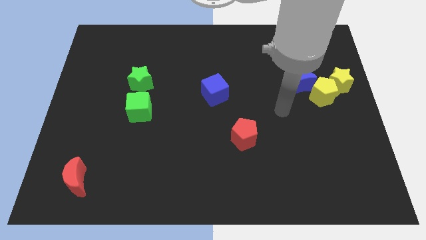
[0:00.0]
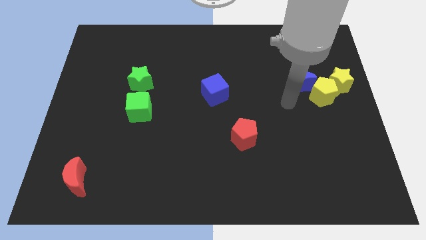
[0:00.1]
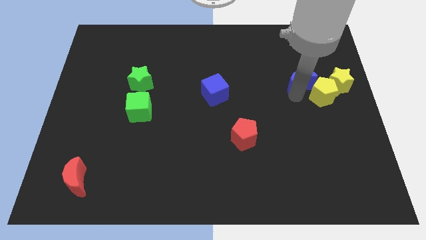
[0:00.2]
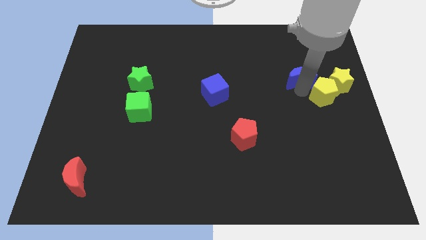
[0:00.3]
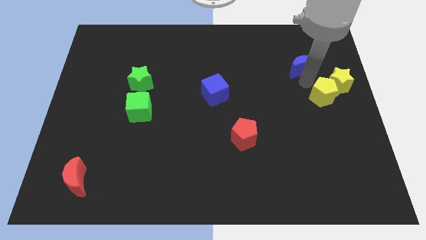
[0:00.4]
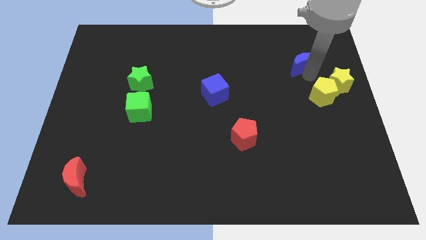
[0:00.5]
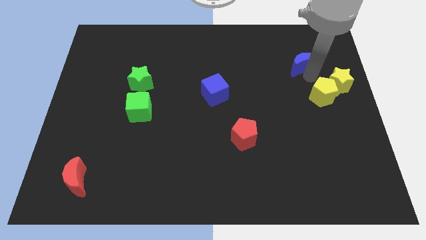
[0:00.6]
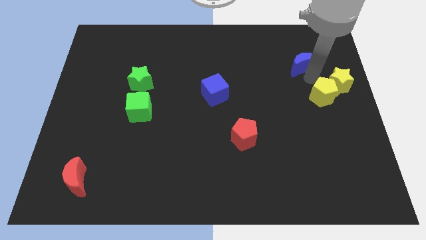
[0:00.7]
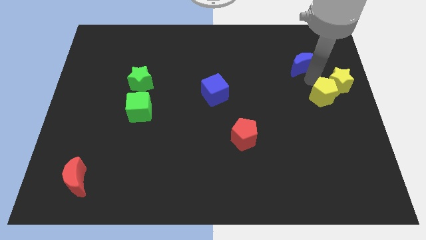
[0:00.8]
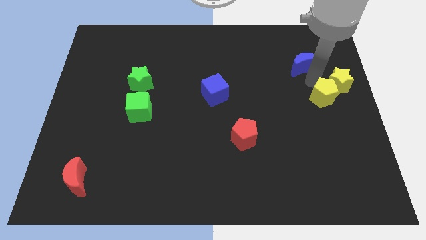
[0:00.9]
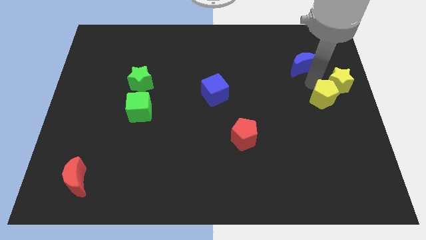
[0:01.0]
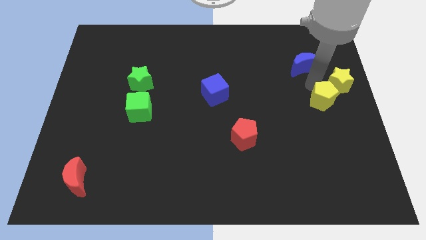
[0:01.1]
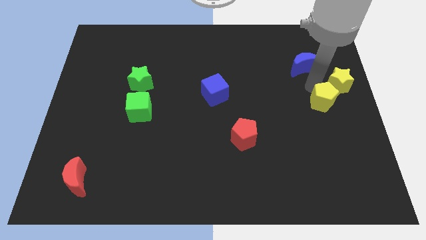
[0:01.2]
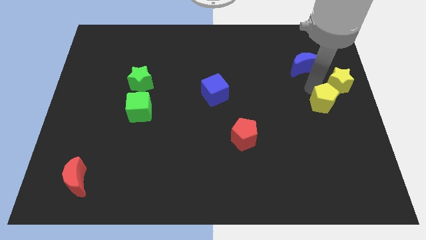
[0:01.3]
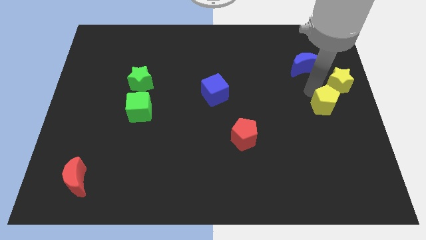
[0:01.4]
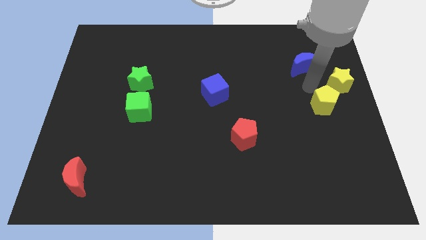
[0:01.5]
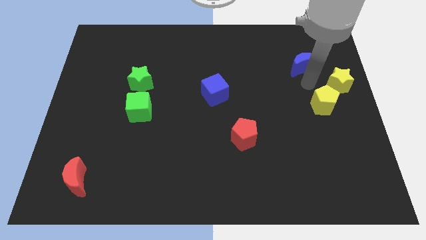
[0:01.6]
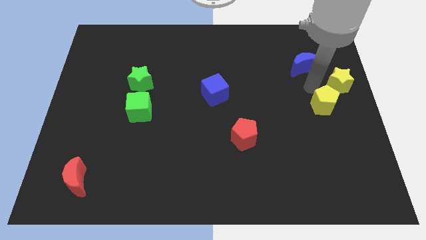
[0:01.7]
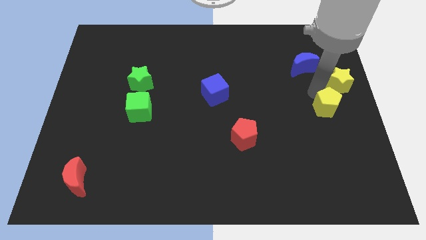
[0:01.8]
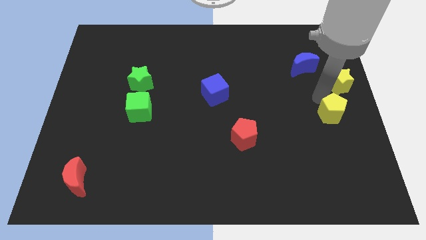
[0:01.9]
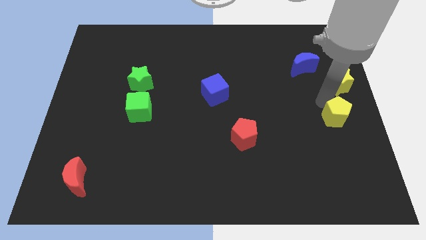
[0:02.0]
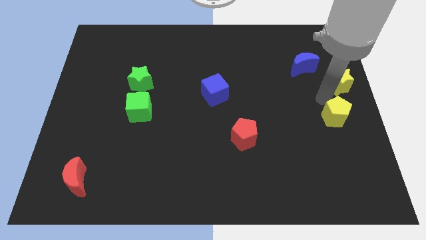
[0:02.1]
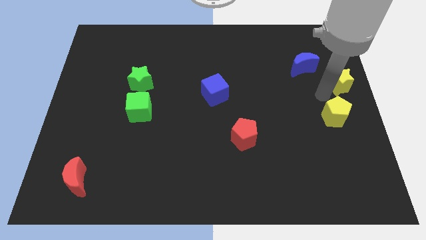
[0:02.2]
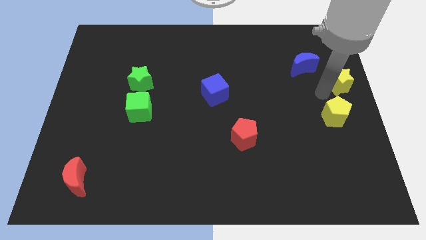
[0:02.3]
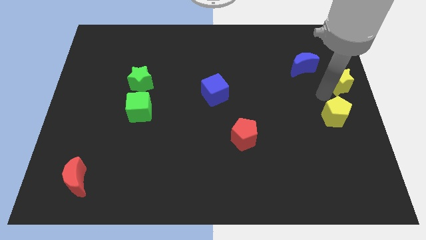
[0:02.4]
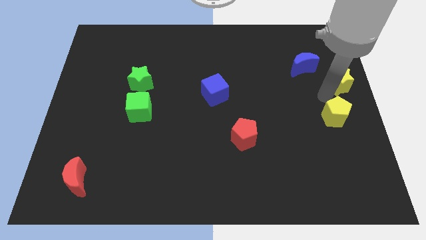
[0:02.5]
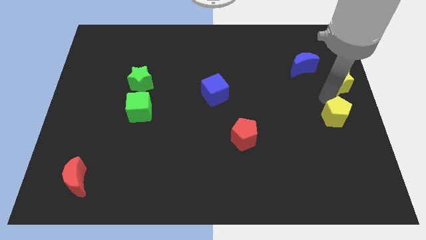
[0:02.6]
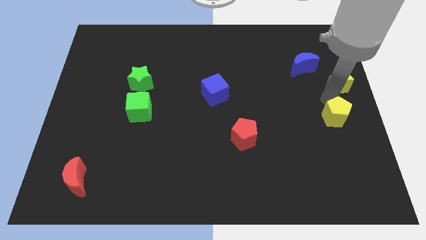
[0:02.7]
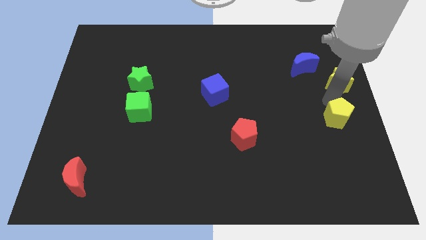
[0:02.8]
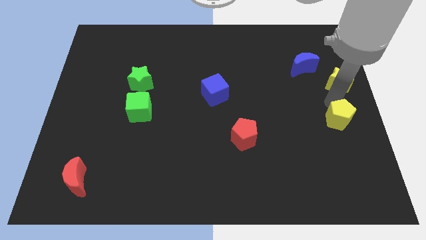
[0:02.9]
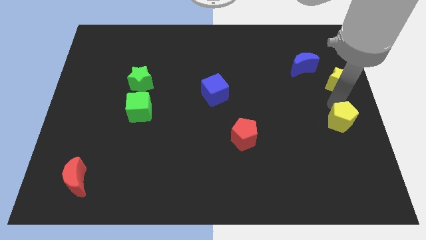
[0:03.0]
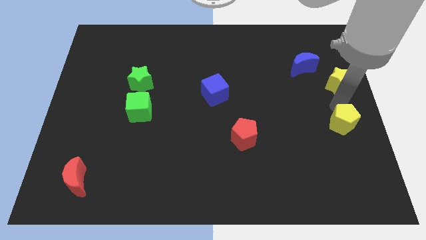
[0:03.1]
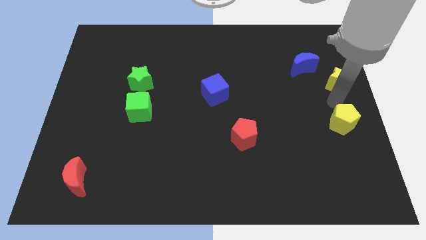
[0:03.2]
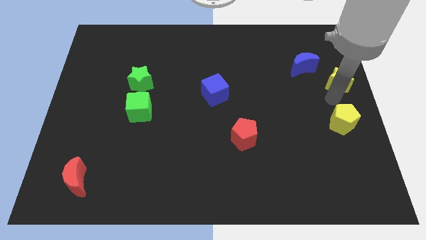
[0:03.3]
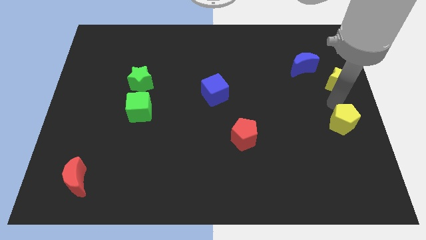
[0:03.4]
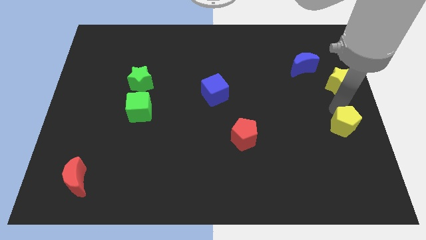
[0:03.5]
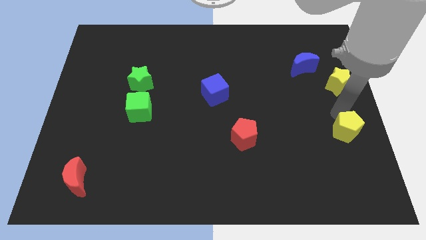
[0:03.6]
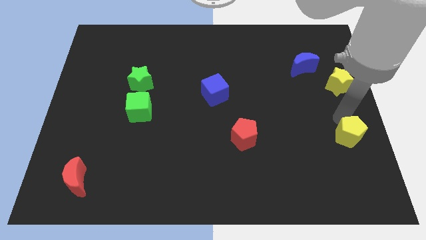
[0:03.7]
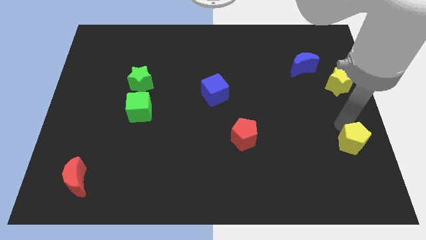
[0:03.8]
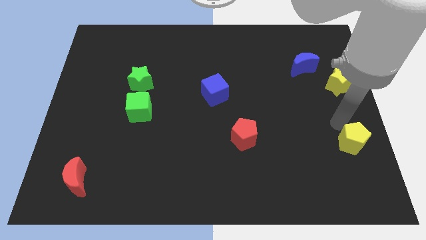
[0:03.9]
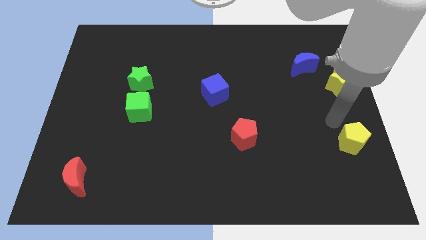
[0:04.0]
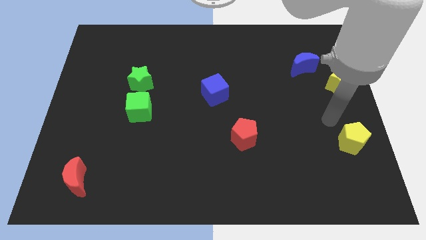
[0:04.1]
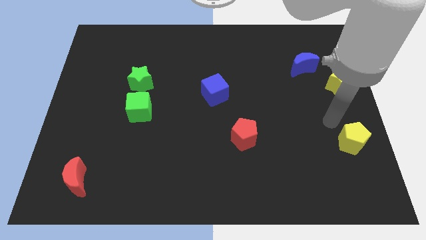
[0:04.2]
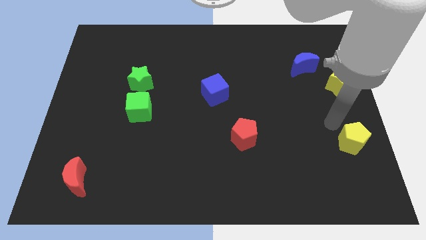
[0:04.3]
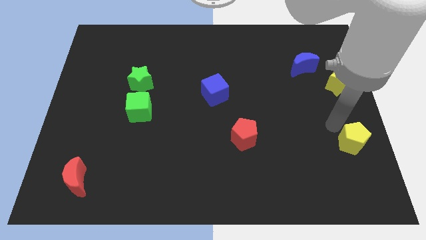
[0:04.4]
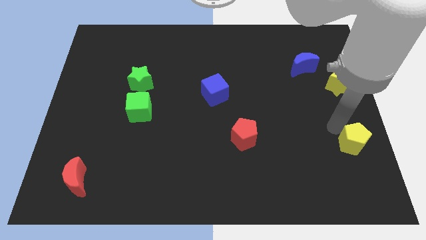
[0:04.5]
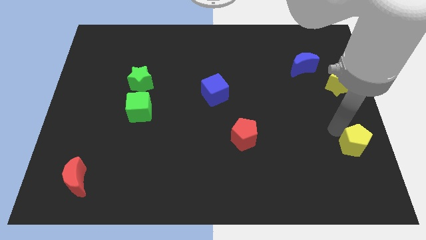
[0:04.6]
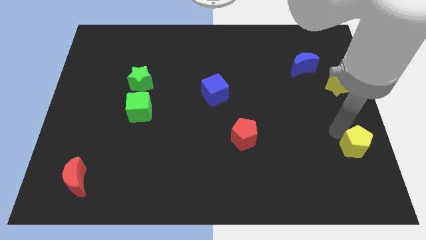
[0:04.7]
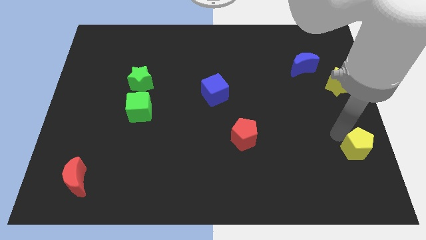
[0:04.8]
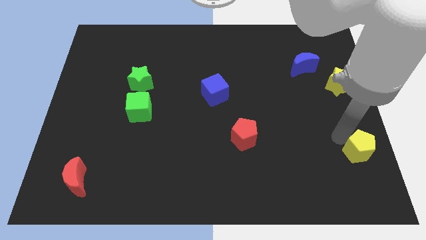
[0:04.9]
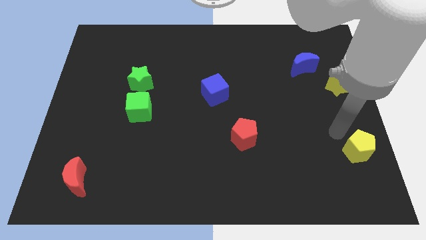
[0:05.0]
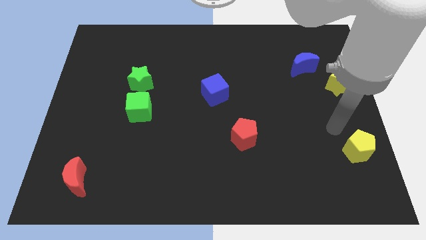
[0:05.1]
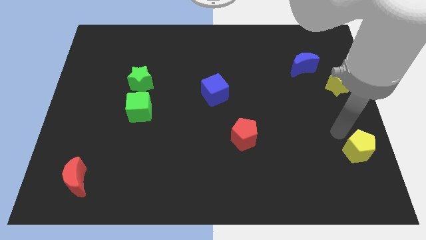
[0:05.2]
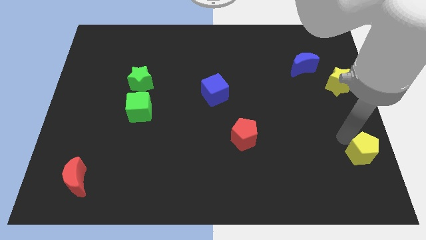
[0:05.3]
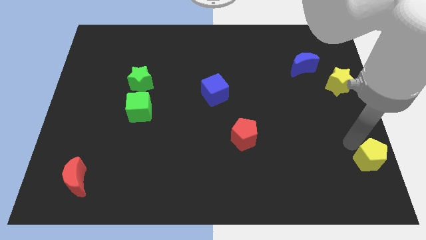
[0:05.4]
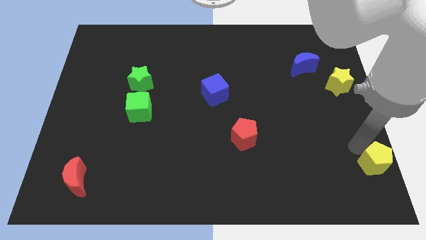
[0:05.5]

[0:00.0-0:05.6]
move the yellow pentagon to the bottom right
